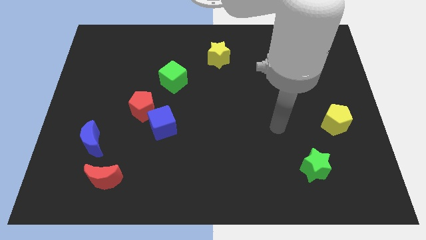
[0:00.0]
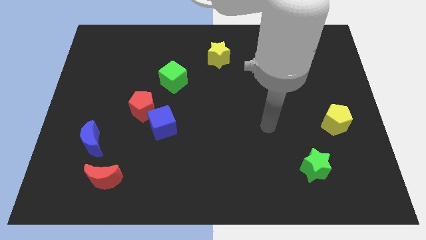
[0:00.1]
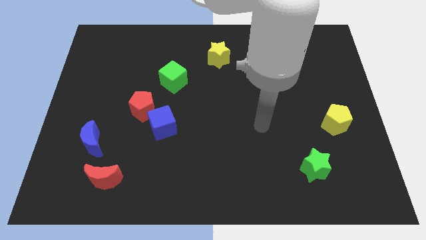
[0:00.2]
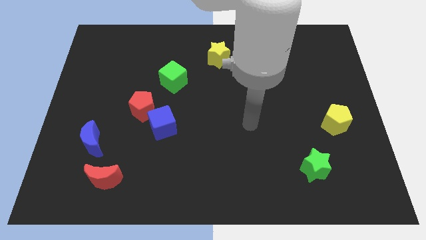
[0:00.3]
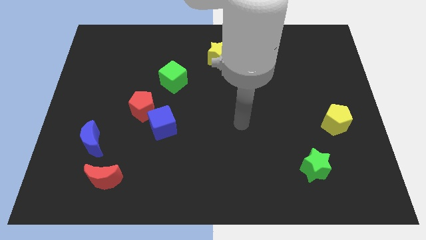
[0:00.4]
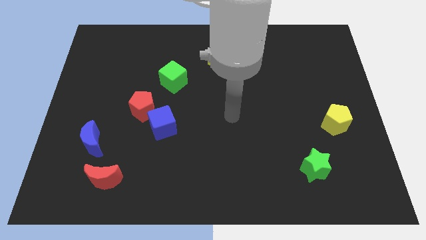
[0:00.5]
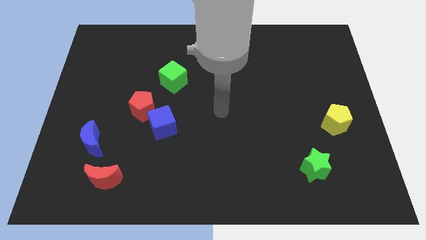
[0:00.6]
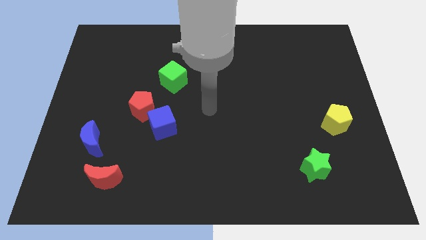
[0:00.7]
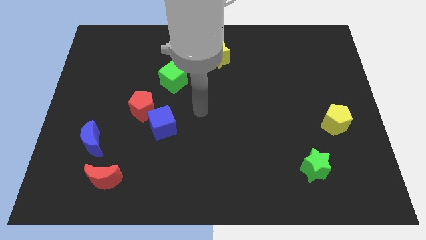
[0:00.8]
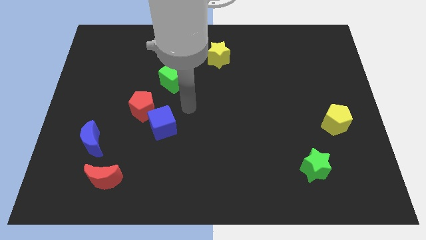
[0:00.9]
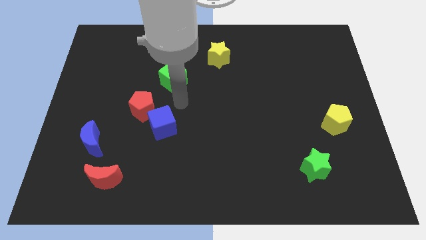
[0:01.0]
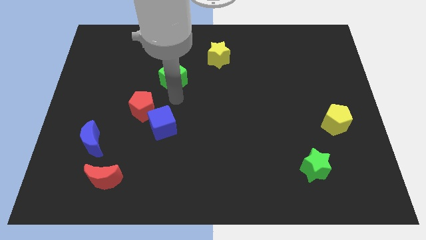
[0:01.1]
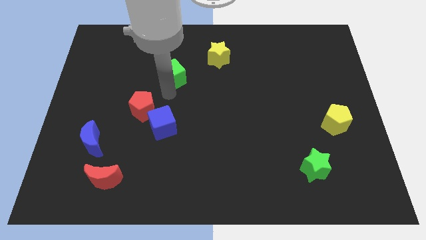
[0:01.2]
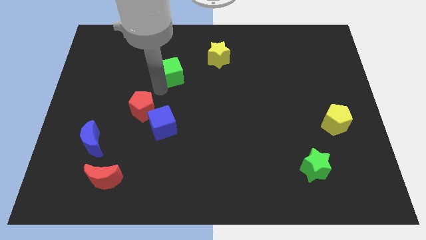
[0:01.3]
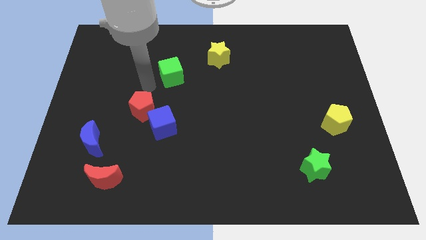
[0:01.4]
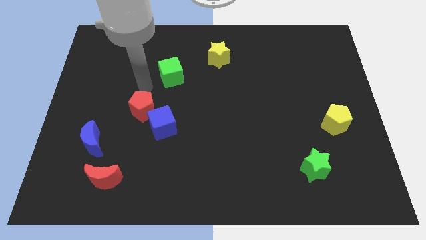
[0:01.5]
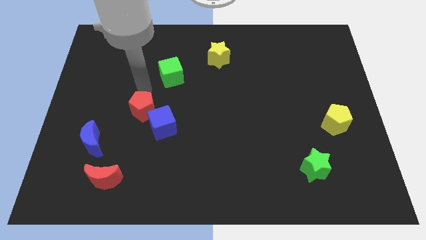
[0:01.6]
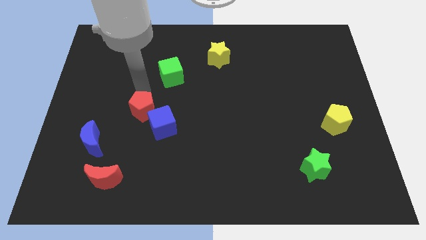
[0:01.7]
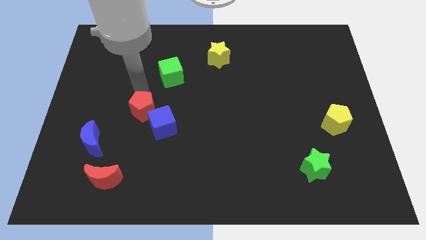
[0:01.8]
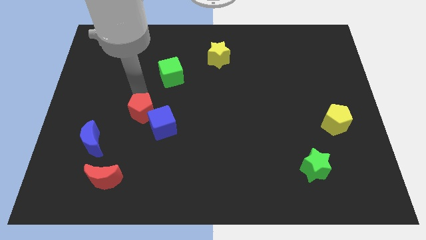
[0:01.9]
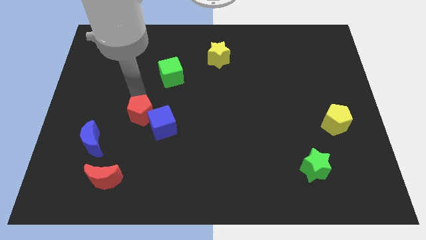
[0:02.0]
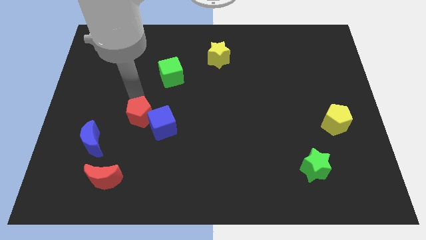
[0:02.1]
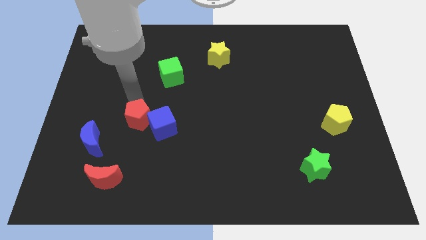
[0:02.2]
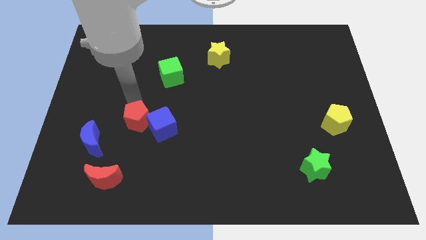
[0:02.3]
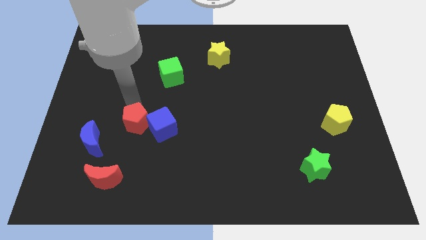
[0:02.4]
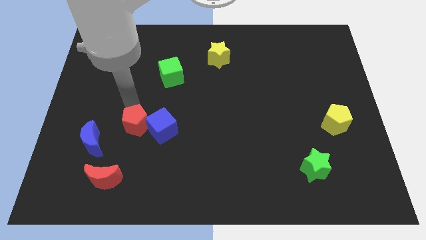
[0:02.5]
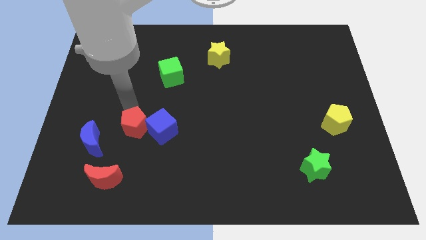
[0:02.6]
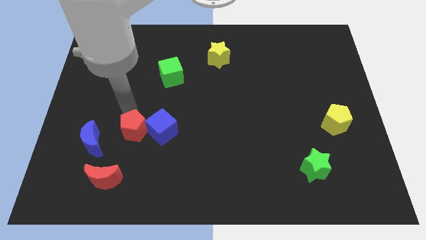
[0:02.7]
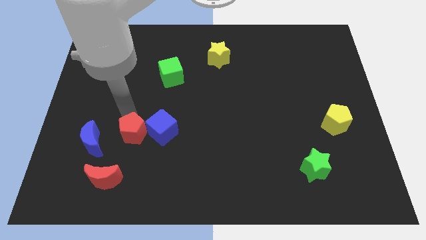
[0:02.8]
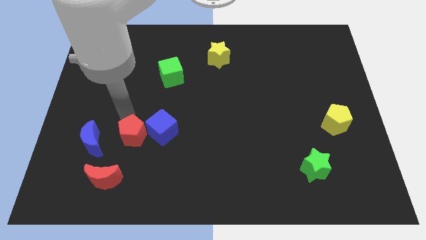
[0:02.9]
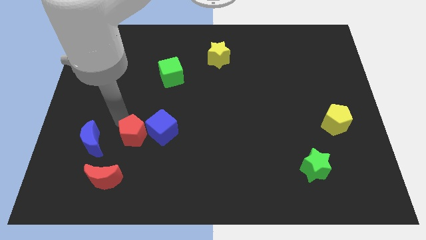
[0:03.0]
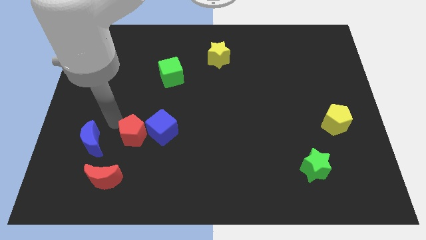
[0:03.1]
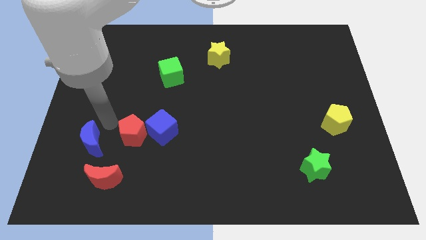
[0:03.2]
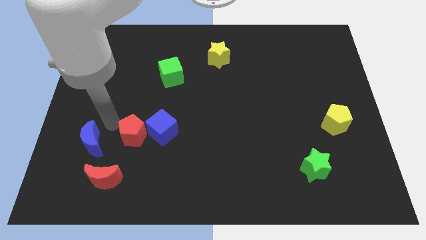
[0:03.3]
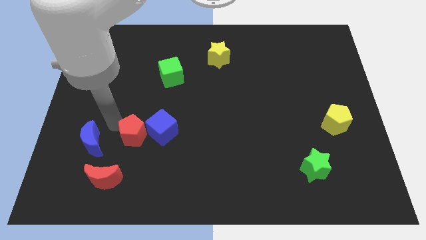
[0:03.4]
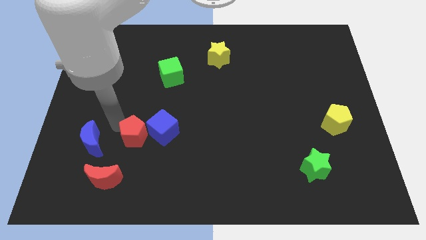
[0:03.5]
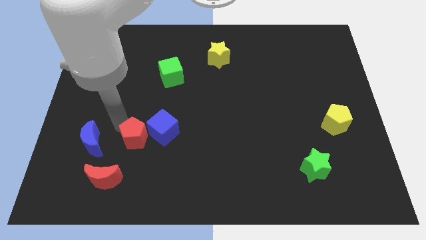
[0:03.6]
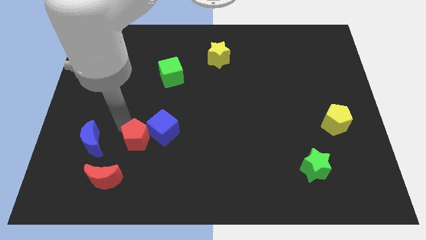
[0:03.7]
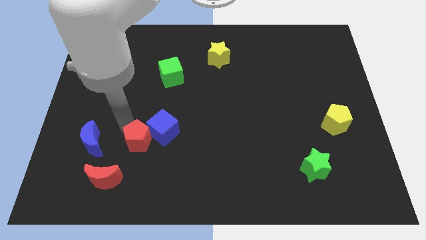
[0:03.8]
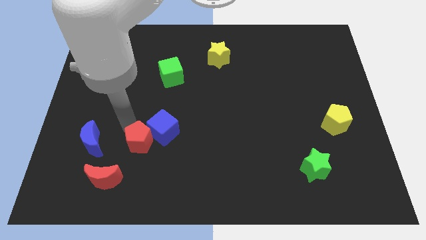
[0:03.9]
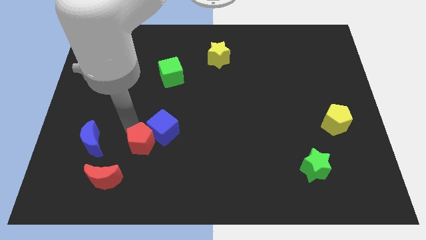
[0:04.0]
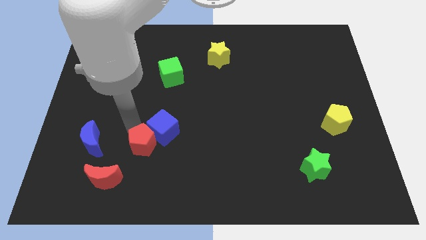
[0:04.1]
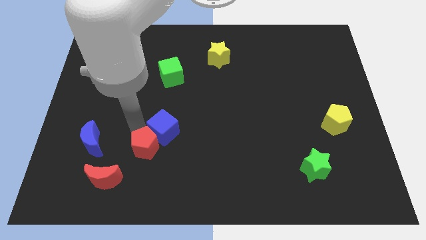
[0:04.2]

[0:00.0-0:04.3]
push the red pentagon a bit down and then to the right

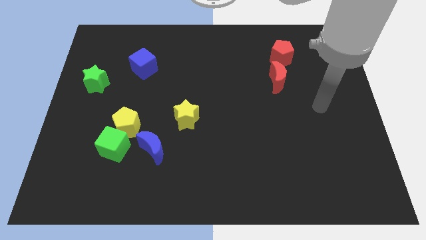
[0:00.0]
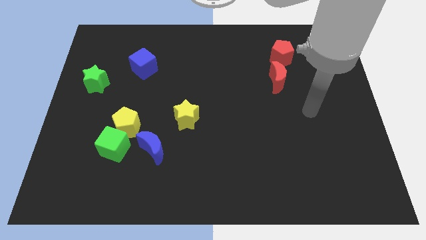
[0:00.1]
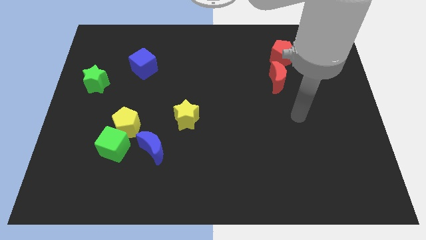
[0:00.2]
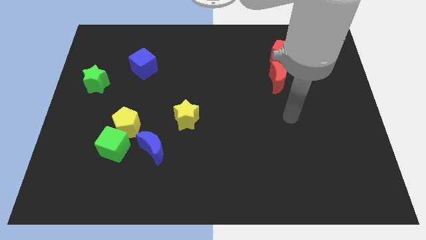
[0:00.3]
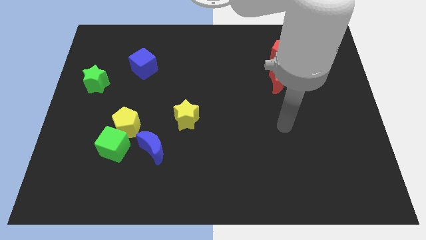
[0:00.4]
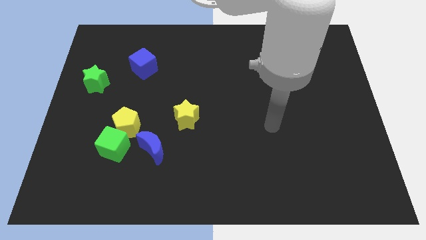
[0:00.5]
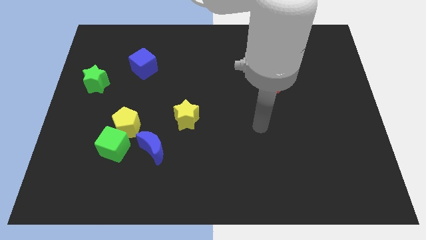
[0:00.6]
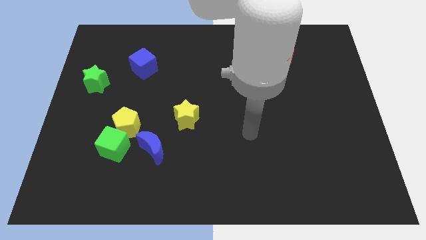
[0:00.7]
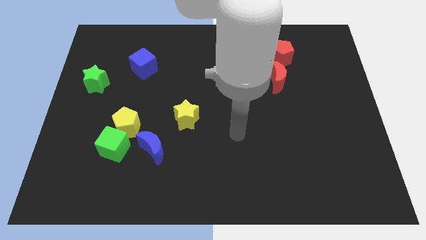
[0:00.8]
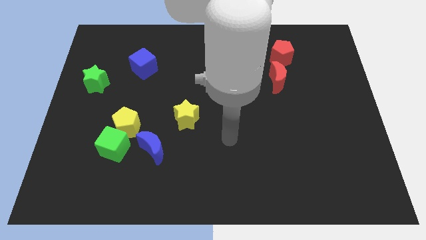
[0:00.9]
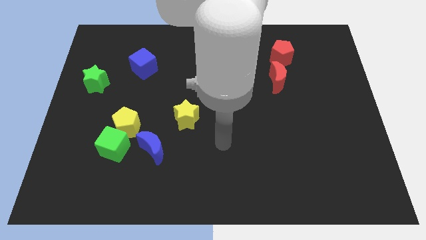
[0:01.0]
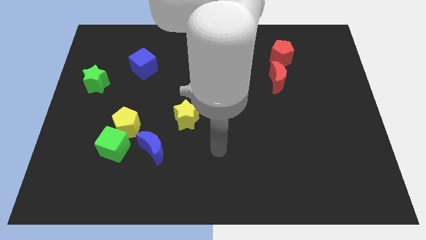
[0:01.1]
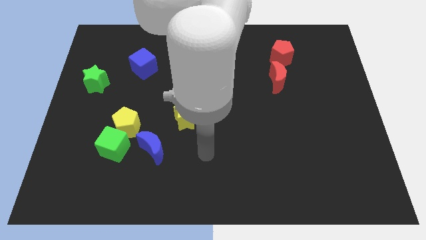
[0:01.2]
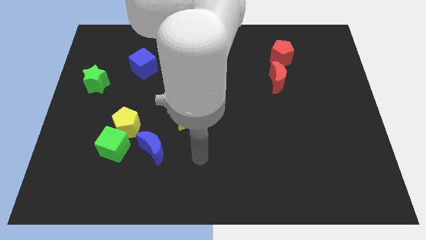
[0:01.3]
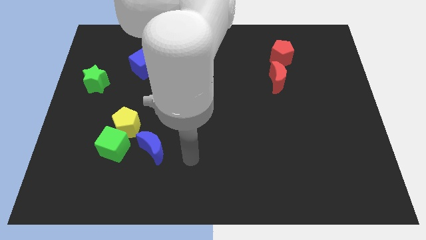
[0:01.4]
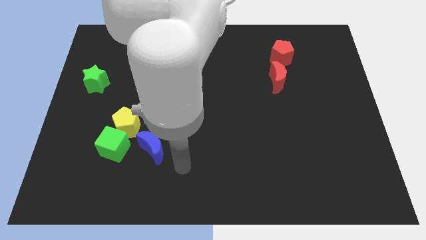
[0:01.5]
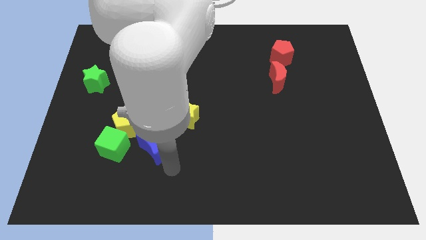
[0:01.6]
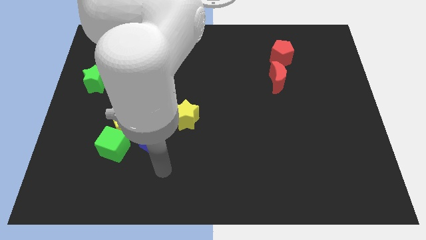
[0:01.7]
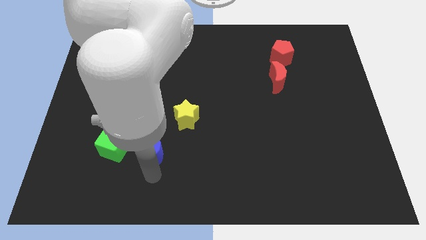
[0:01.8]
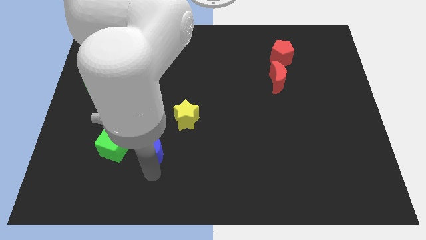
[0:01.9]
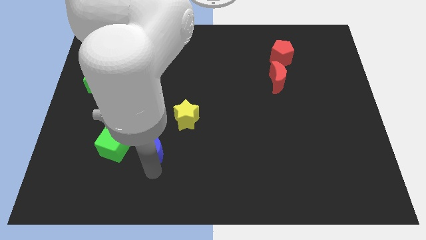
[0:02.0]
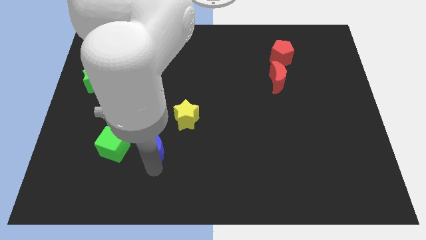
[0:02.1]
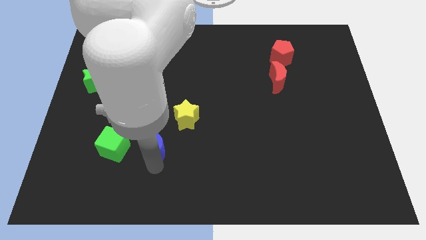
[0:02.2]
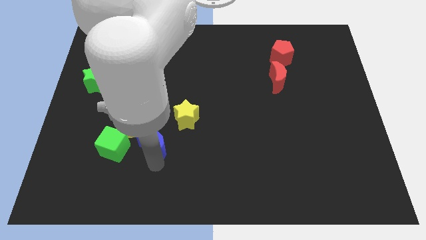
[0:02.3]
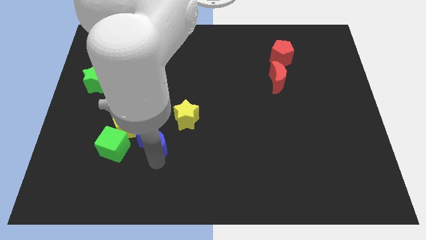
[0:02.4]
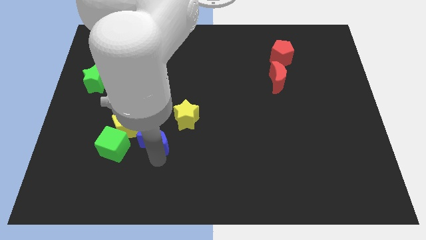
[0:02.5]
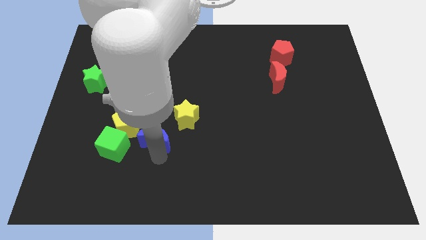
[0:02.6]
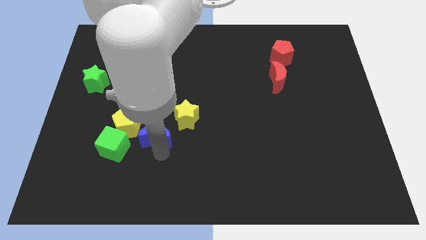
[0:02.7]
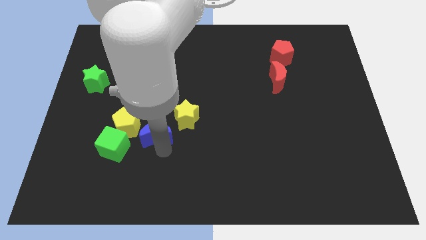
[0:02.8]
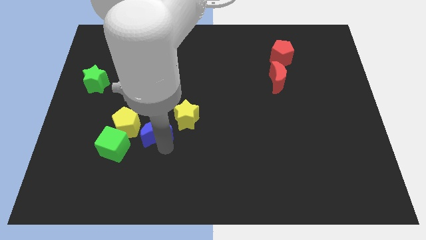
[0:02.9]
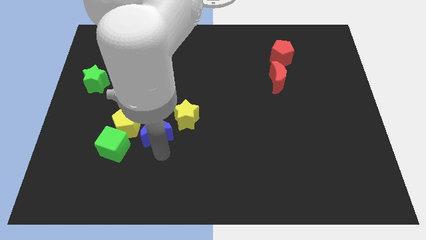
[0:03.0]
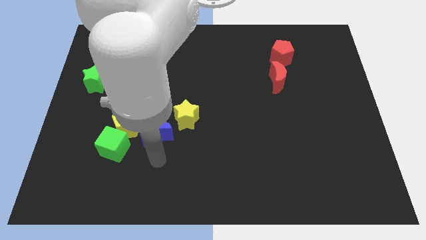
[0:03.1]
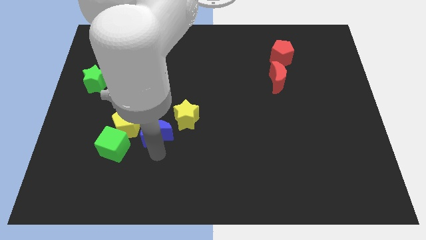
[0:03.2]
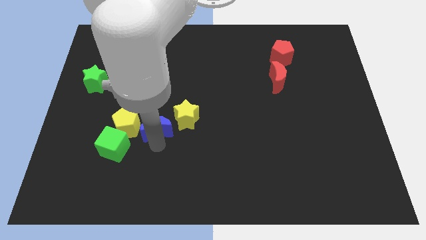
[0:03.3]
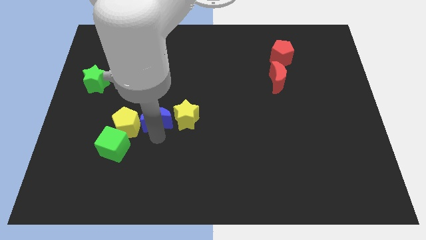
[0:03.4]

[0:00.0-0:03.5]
slightly slide the blue moon upwards

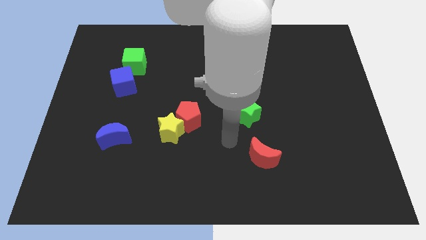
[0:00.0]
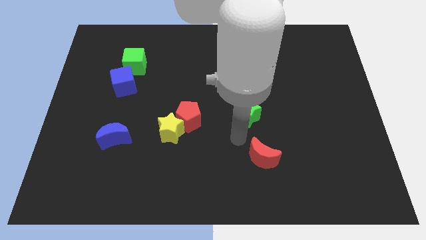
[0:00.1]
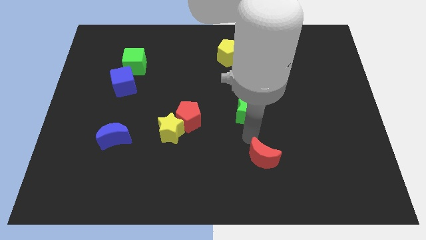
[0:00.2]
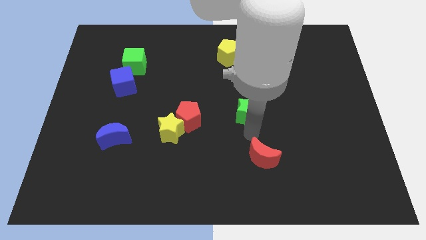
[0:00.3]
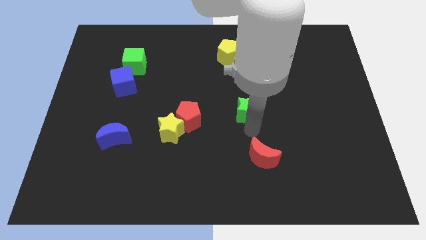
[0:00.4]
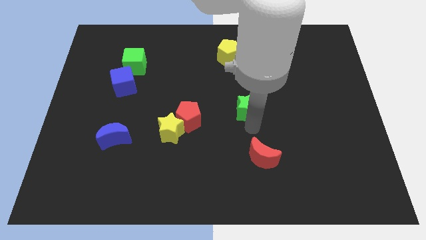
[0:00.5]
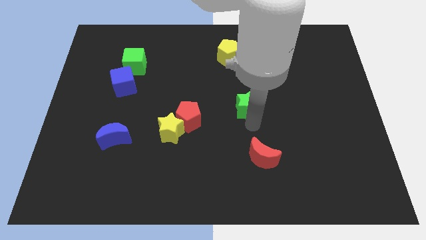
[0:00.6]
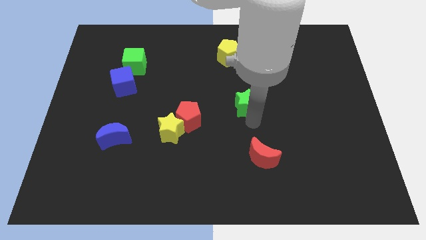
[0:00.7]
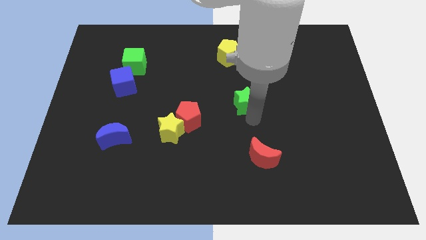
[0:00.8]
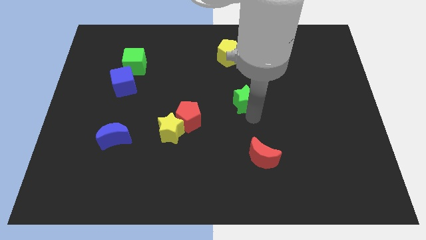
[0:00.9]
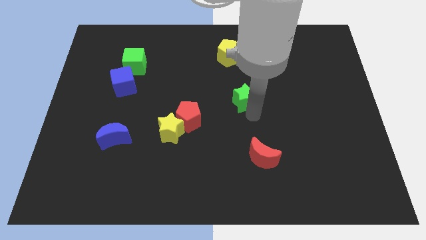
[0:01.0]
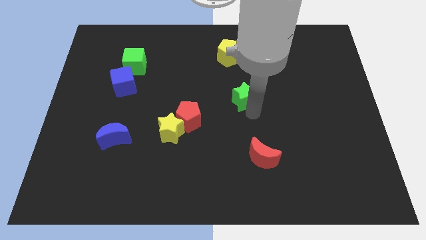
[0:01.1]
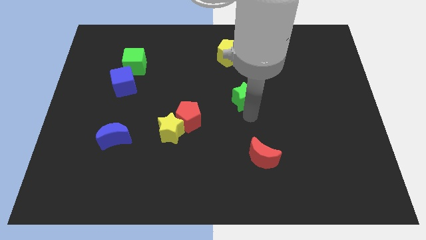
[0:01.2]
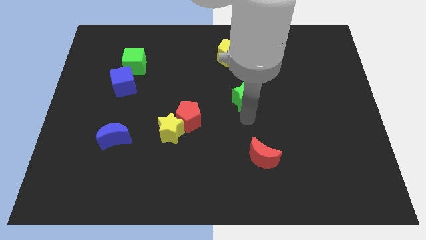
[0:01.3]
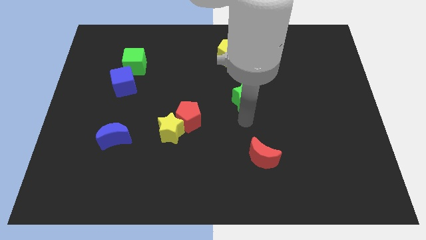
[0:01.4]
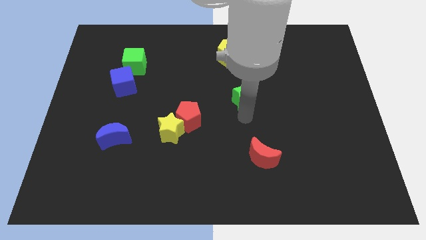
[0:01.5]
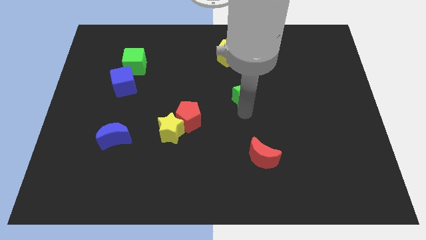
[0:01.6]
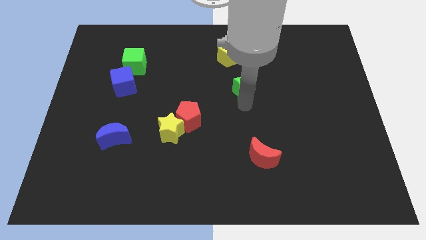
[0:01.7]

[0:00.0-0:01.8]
push the green star somewhat up
